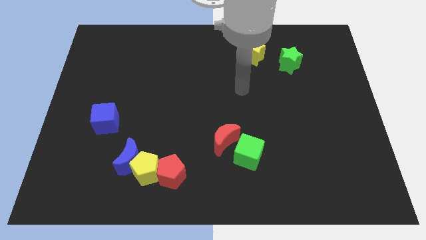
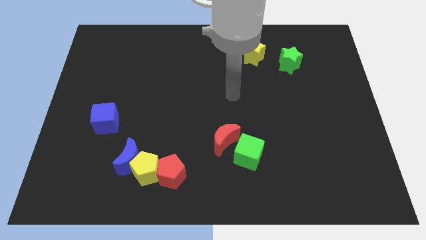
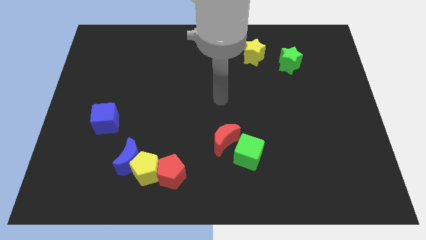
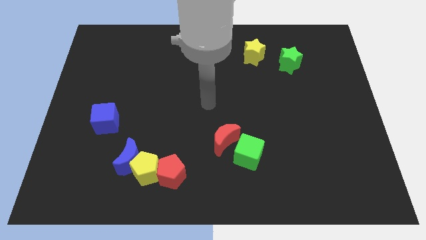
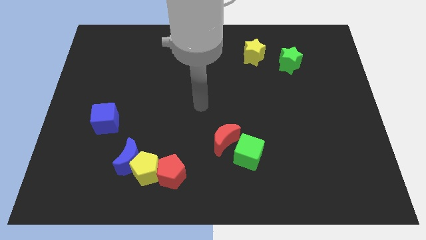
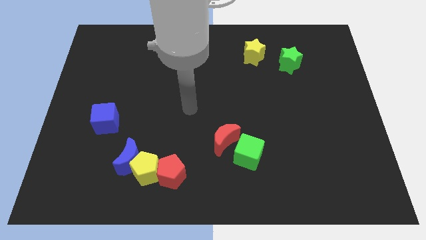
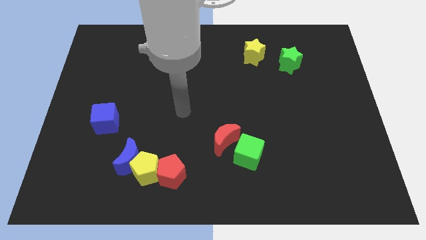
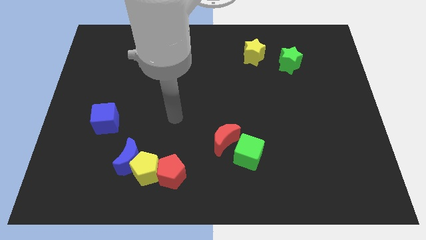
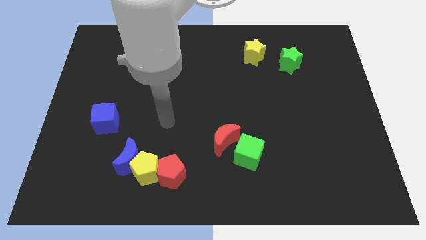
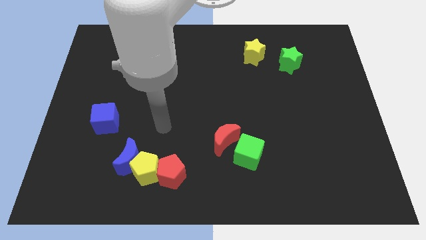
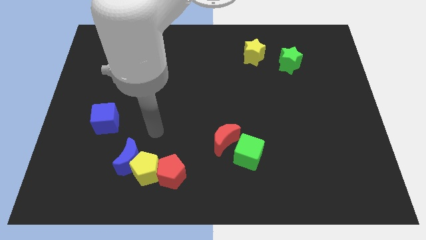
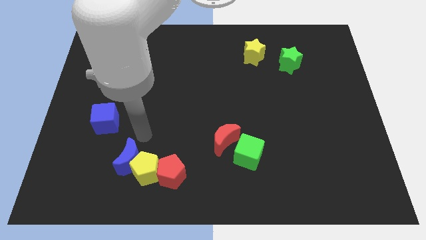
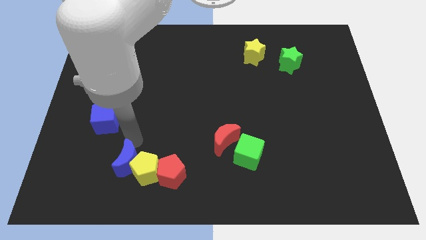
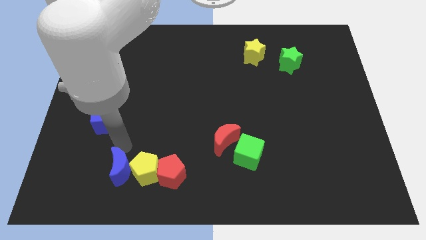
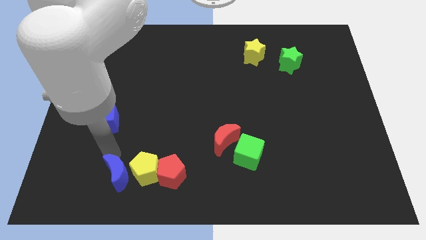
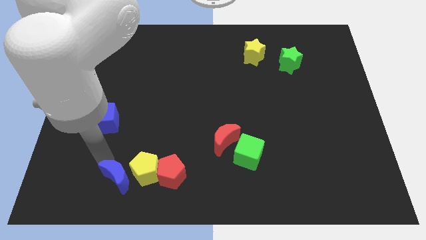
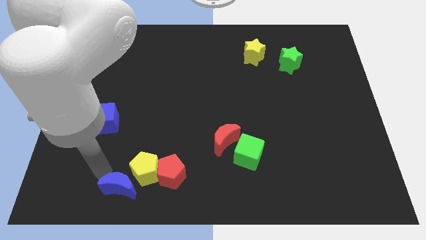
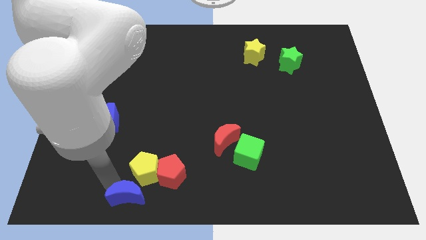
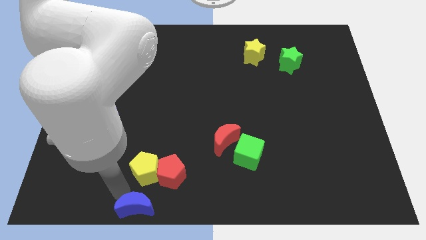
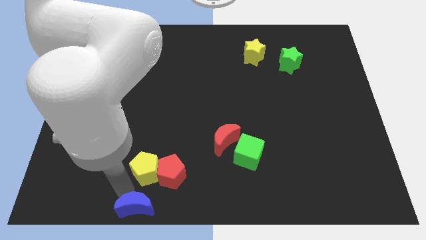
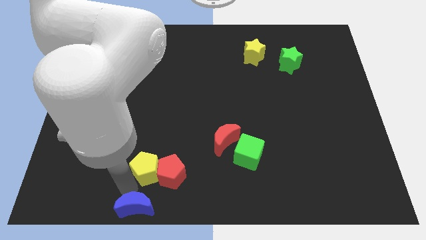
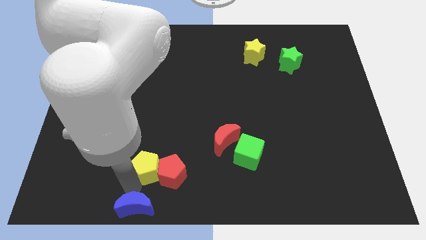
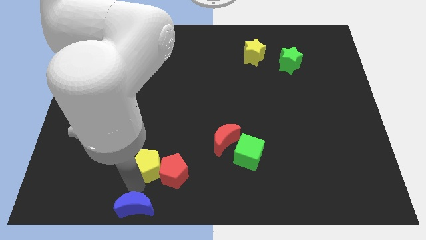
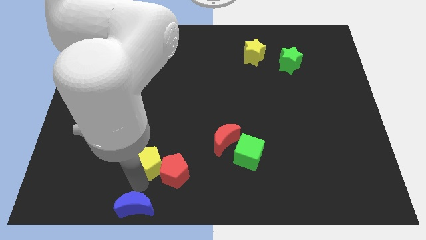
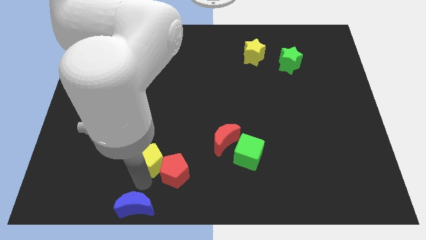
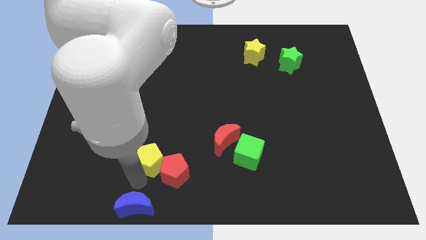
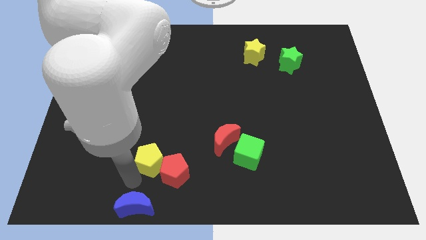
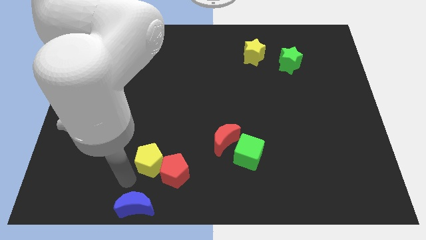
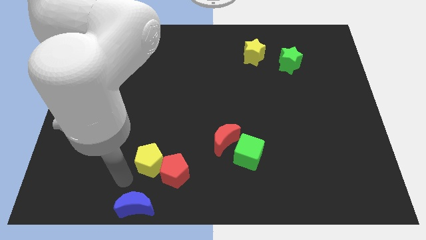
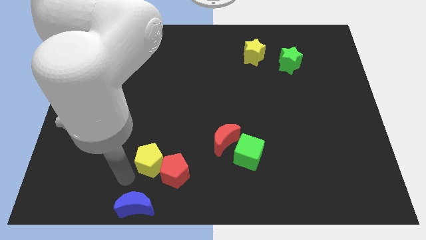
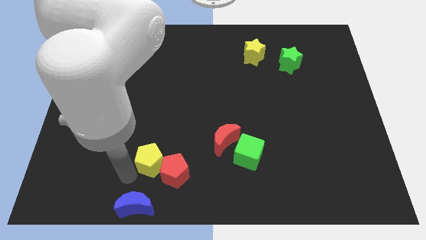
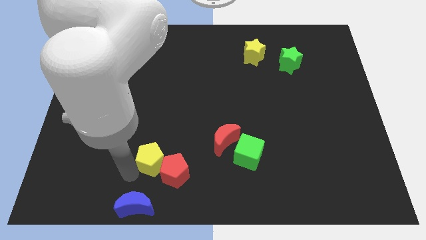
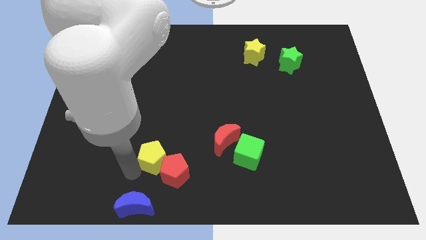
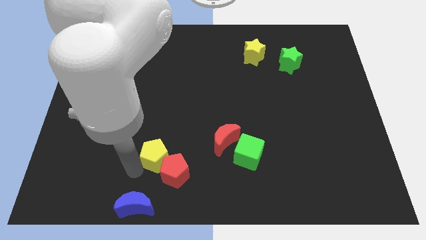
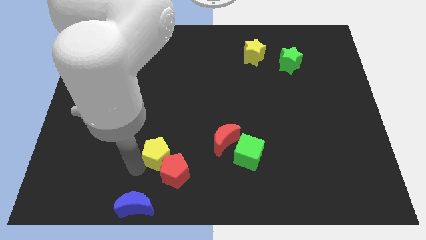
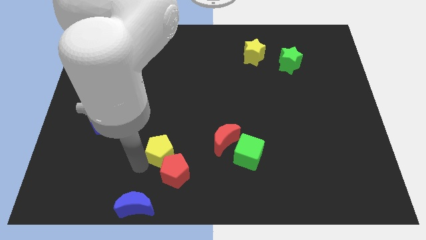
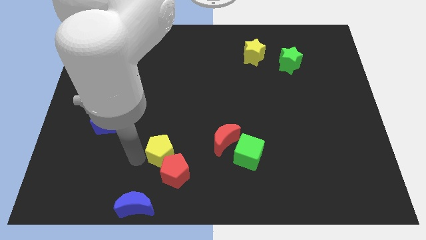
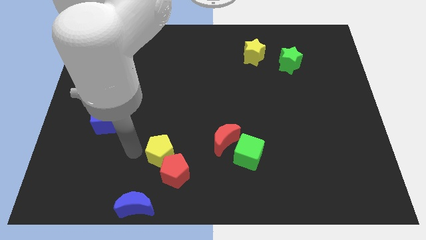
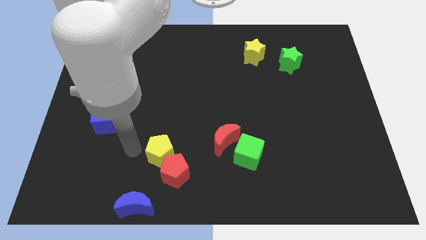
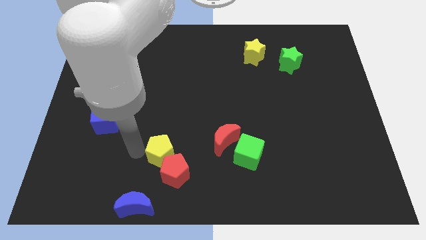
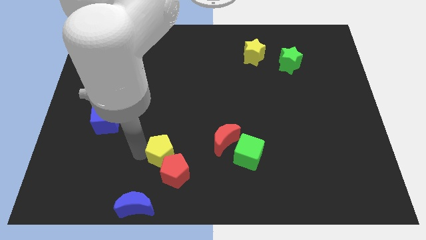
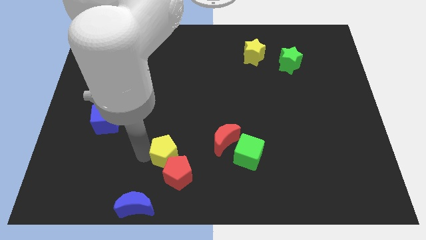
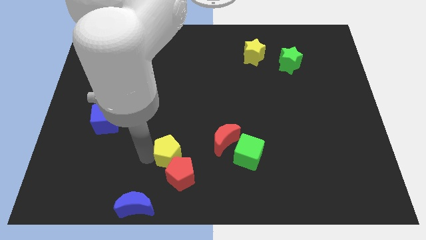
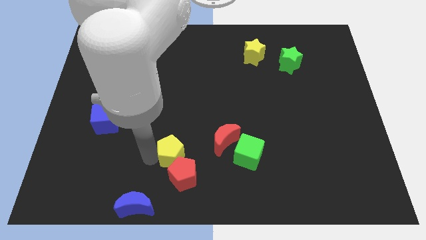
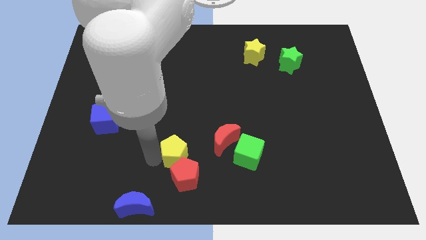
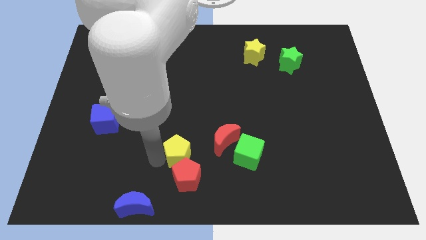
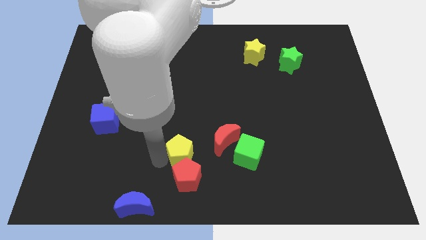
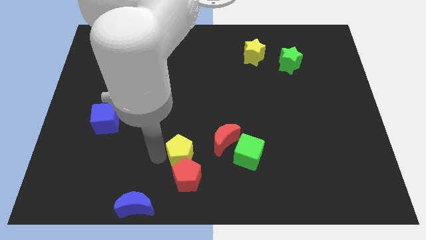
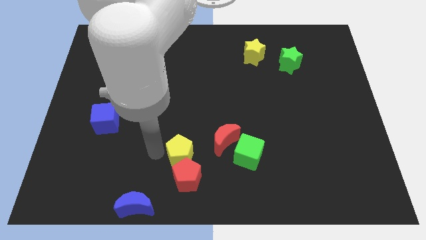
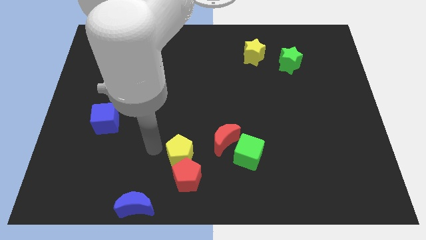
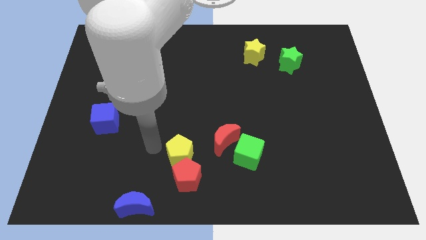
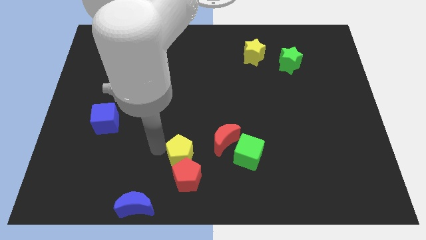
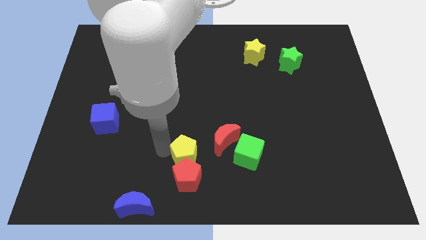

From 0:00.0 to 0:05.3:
slightly push the yellow pentagon right

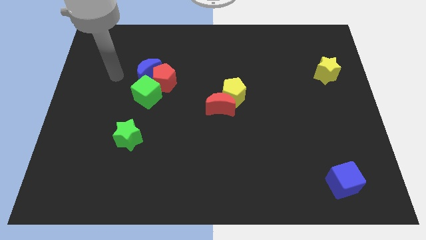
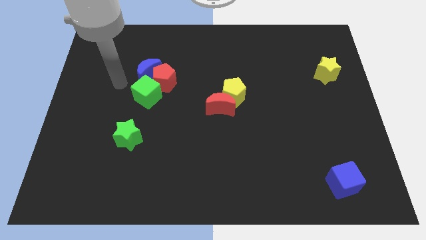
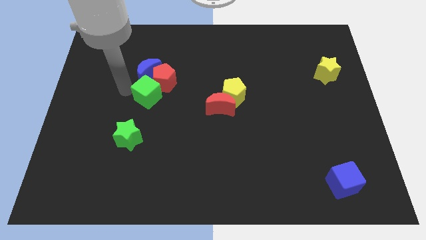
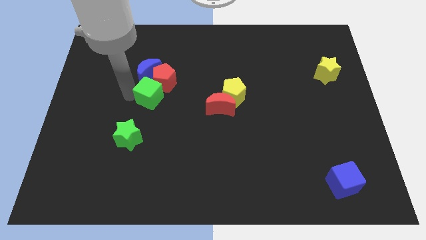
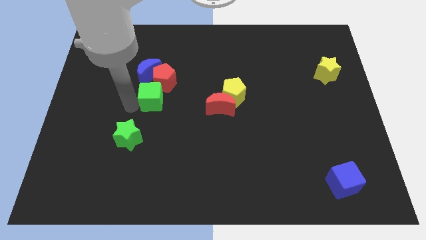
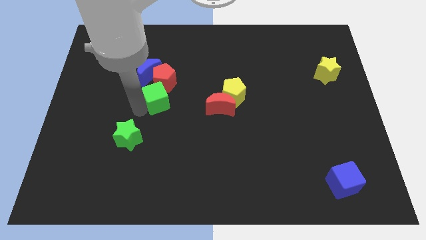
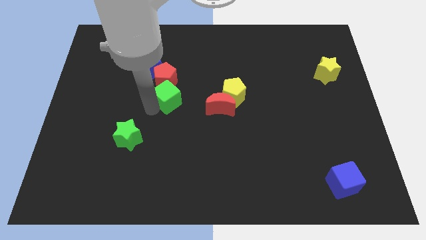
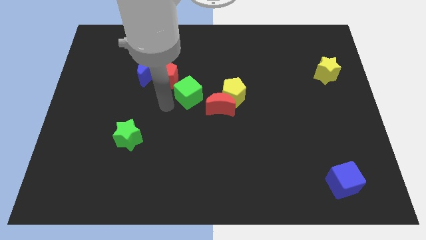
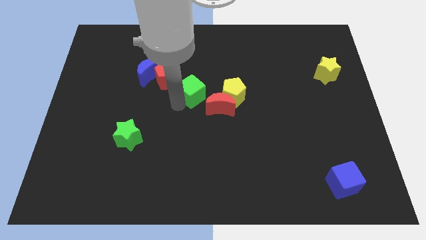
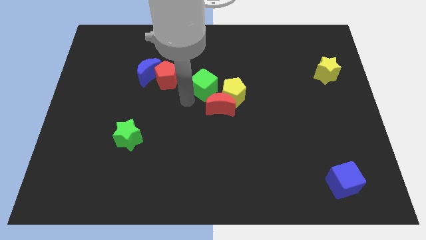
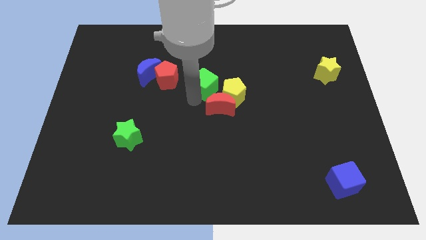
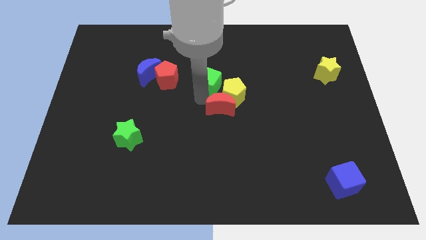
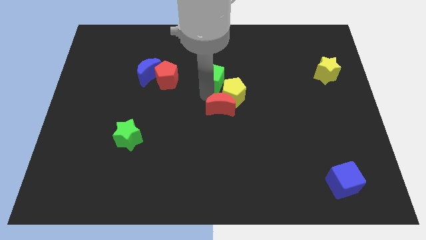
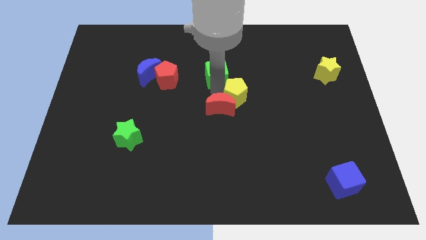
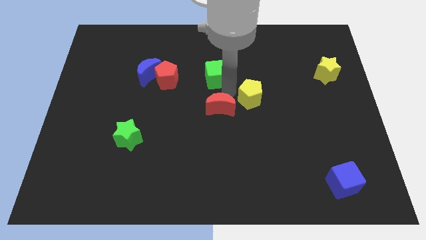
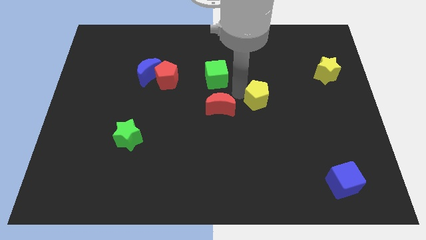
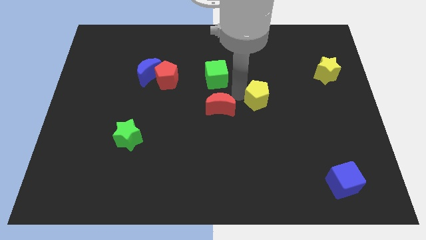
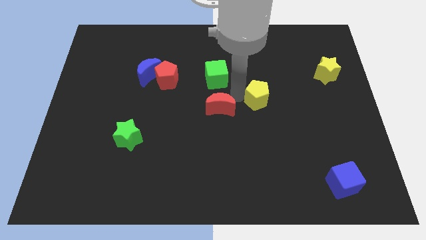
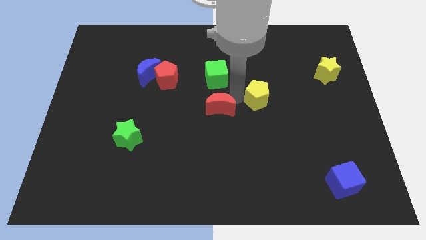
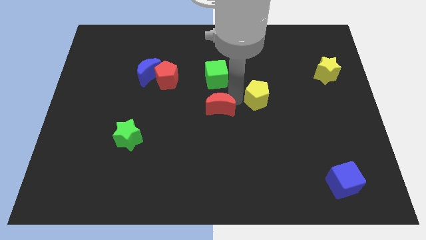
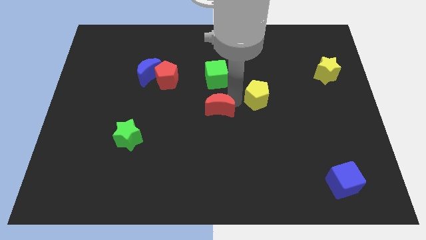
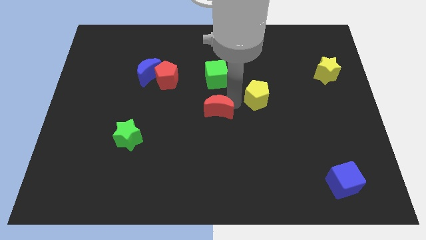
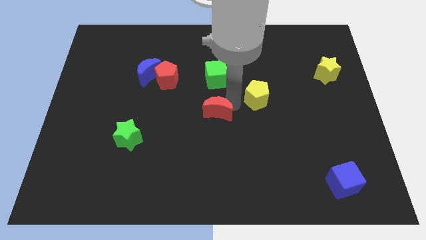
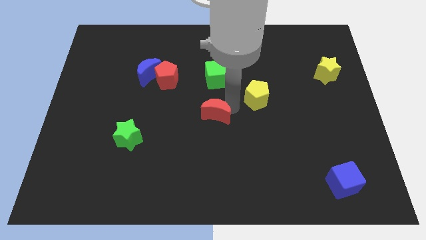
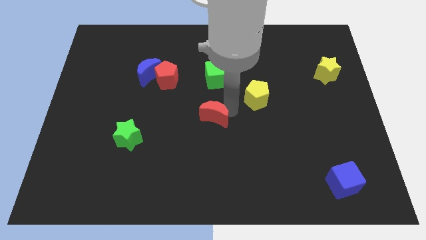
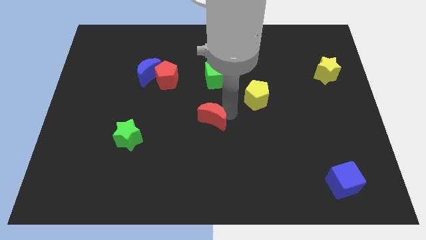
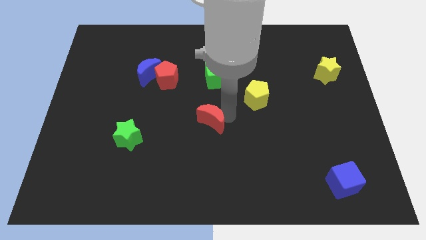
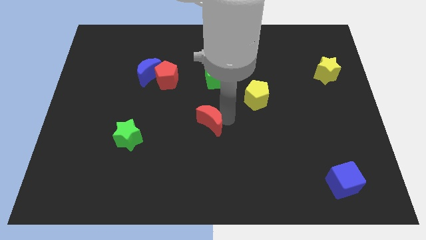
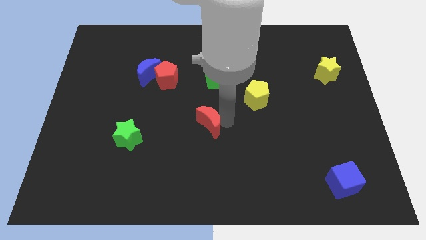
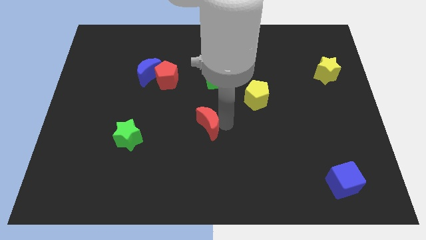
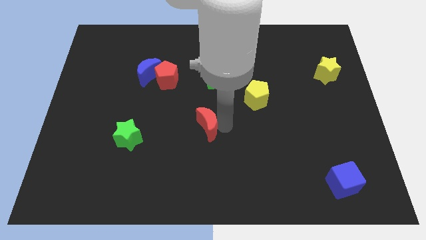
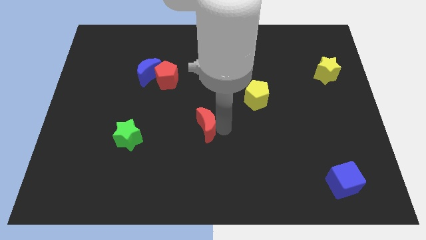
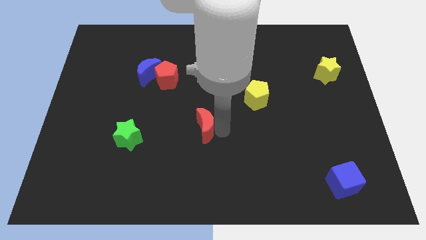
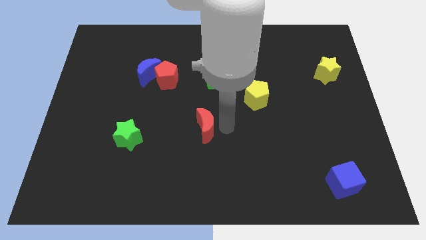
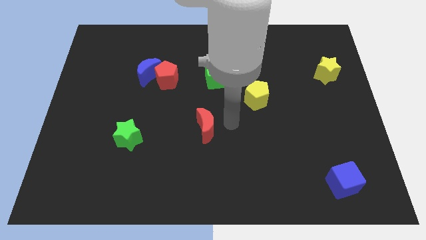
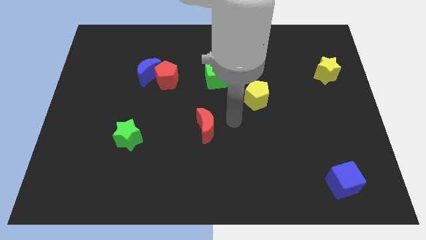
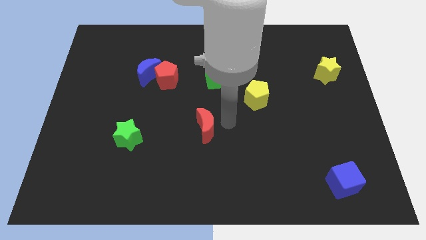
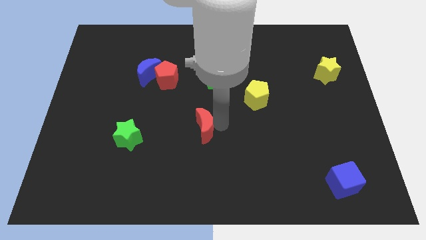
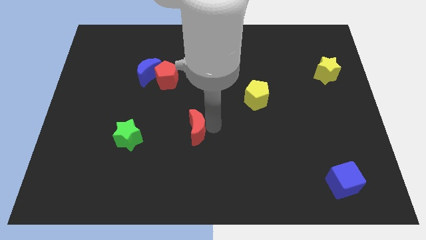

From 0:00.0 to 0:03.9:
slide the red moon downwards and then to the left slightly
